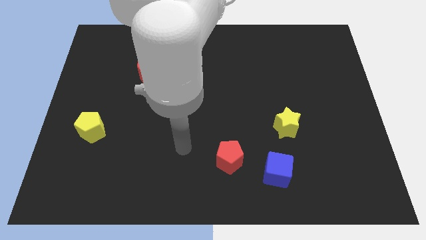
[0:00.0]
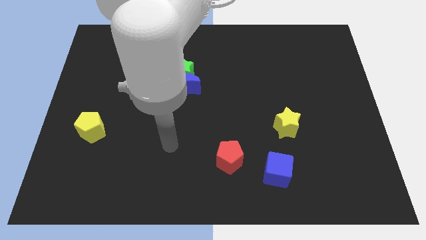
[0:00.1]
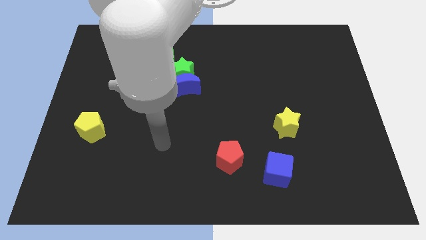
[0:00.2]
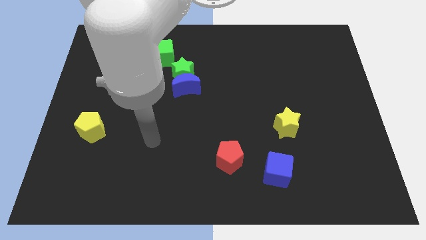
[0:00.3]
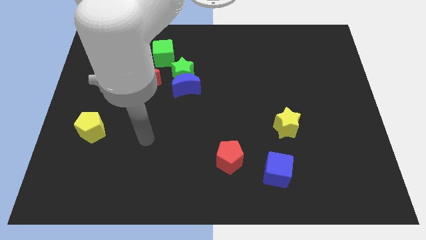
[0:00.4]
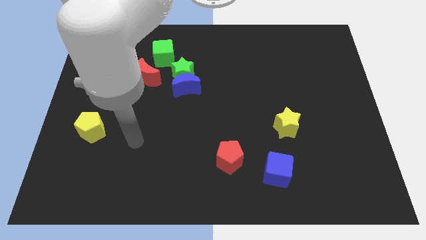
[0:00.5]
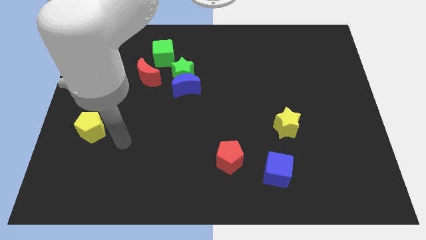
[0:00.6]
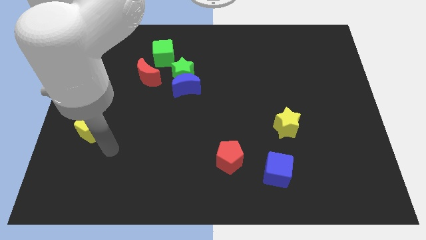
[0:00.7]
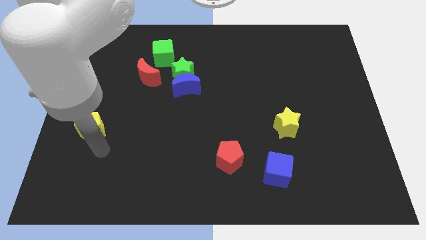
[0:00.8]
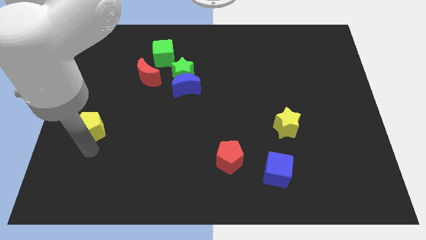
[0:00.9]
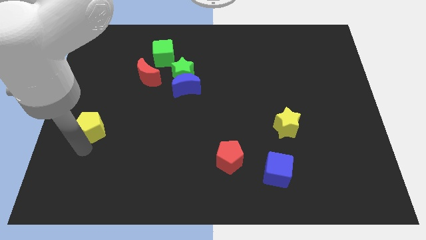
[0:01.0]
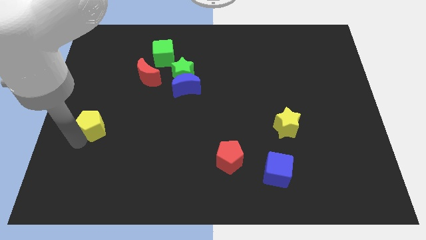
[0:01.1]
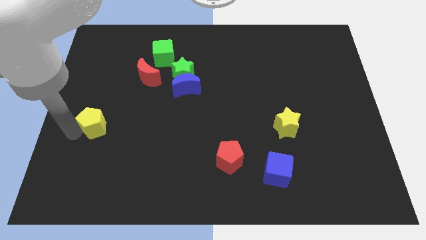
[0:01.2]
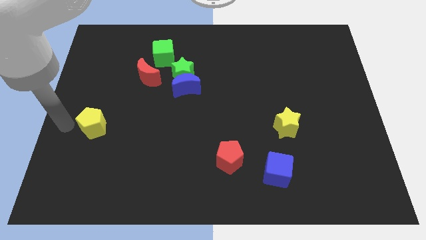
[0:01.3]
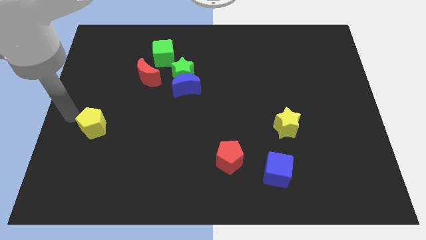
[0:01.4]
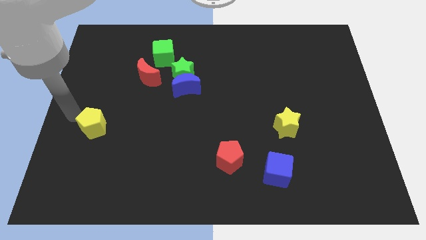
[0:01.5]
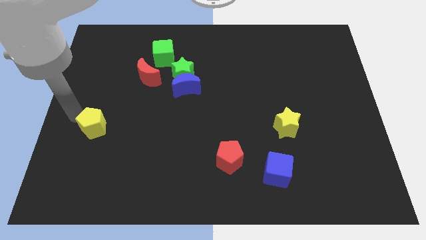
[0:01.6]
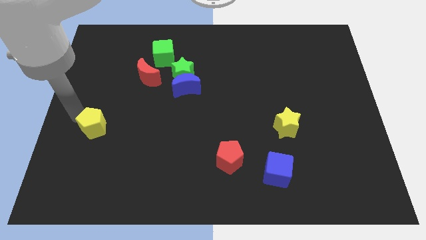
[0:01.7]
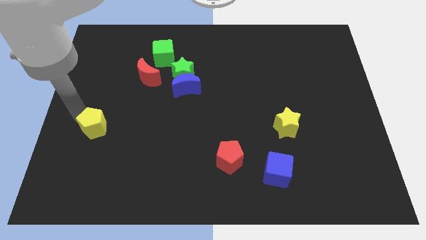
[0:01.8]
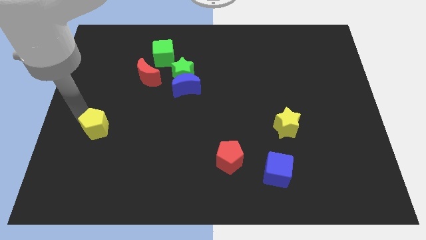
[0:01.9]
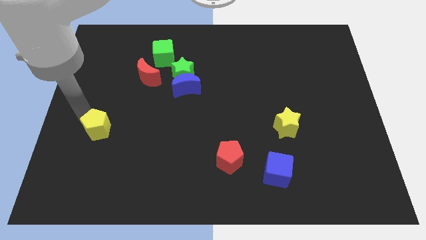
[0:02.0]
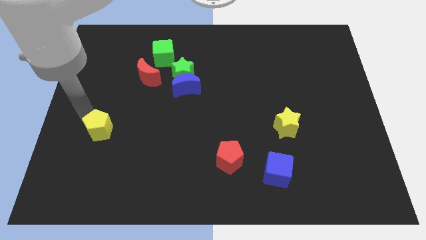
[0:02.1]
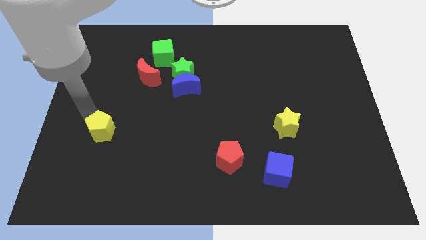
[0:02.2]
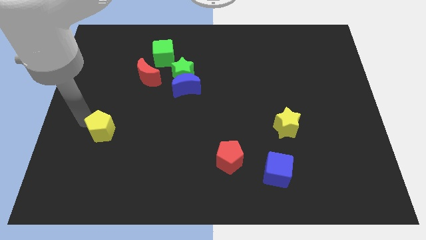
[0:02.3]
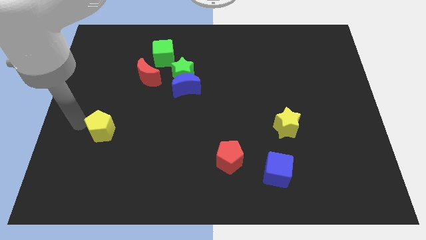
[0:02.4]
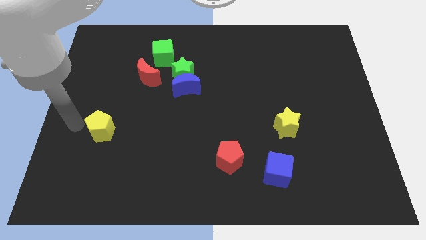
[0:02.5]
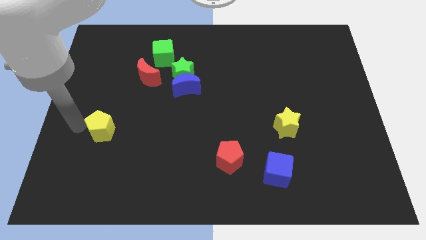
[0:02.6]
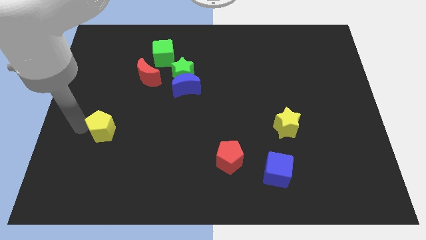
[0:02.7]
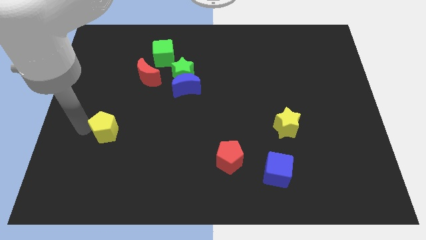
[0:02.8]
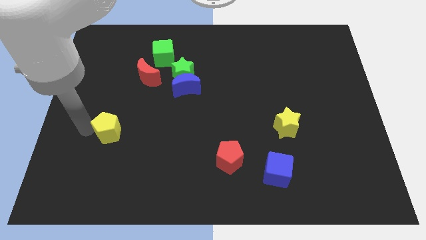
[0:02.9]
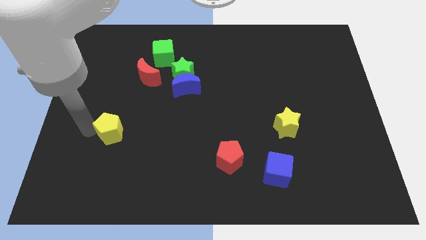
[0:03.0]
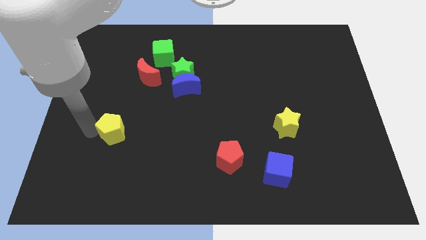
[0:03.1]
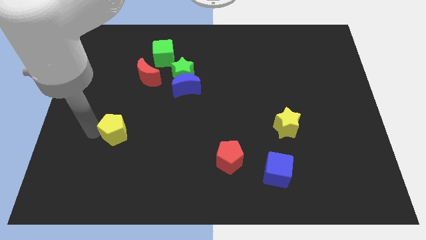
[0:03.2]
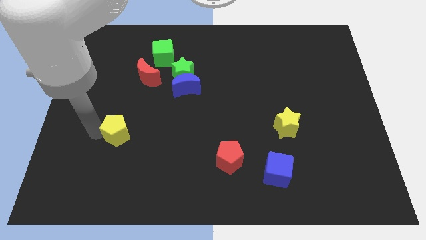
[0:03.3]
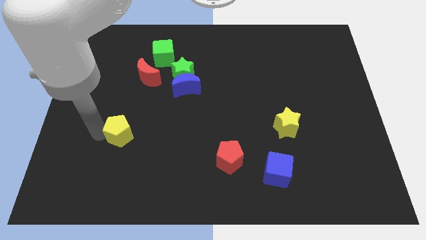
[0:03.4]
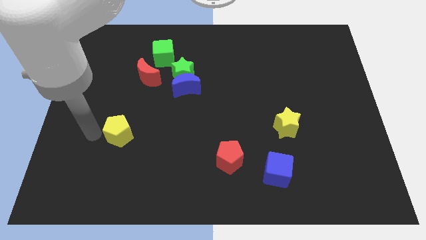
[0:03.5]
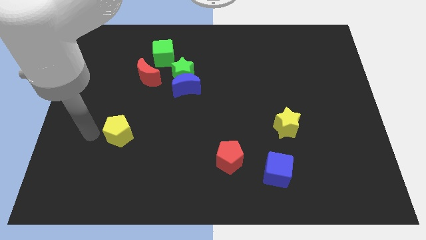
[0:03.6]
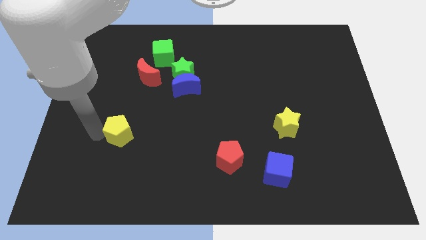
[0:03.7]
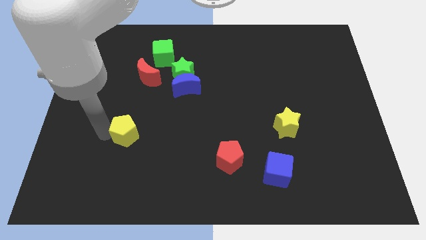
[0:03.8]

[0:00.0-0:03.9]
push the yellow pentagon right a bit

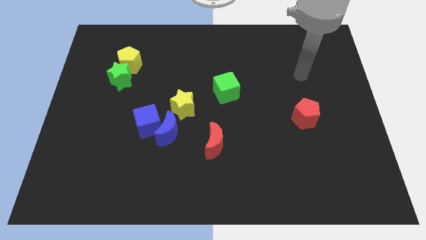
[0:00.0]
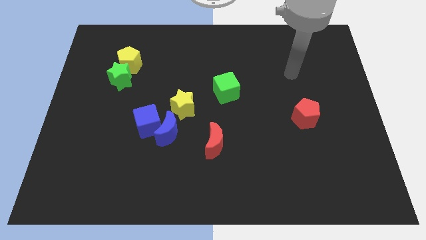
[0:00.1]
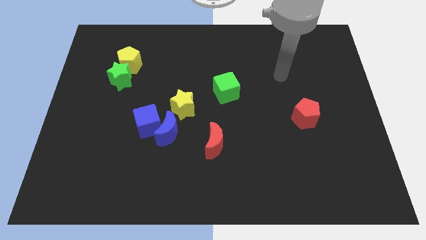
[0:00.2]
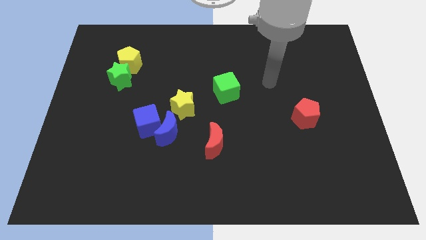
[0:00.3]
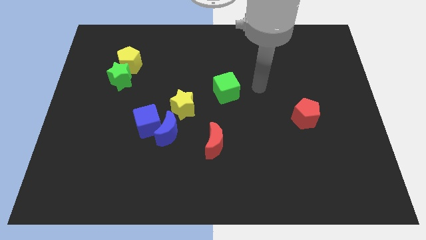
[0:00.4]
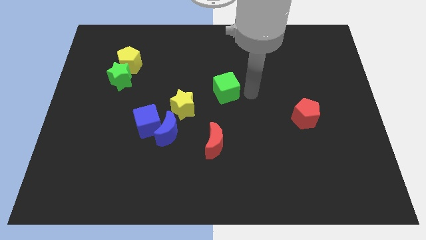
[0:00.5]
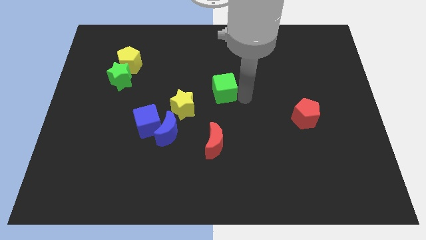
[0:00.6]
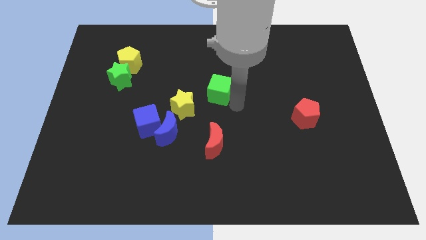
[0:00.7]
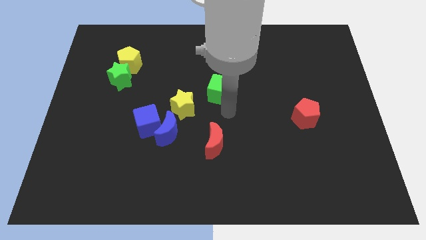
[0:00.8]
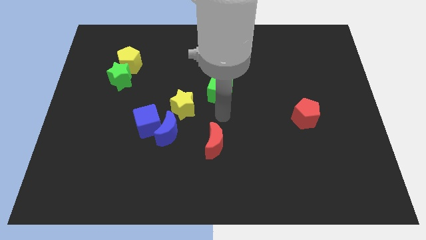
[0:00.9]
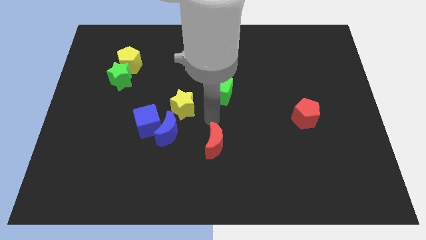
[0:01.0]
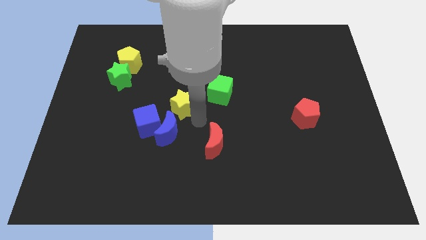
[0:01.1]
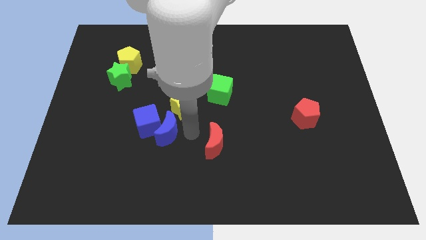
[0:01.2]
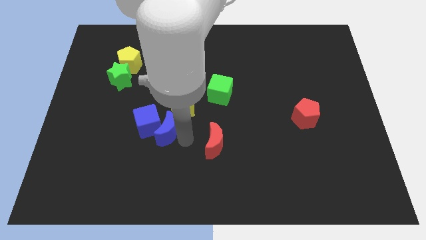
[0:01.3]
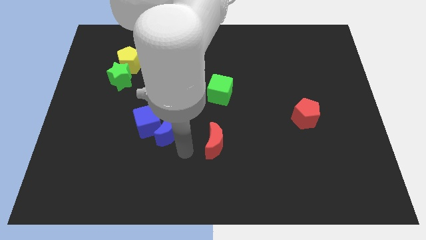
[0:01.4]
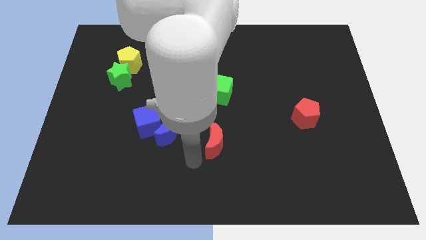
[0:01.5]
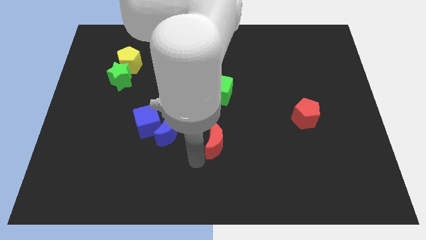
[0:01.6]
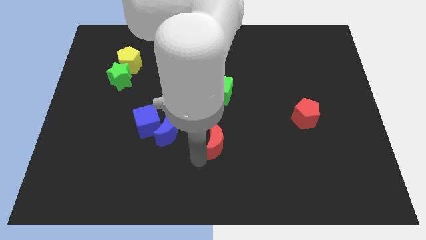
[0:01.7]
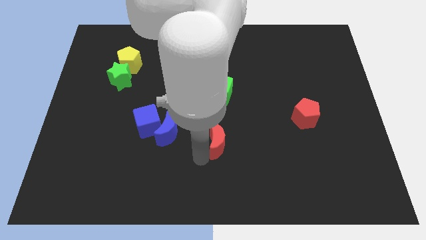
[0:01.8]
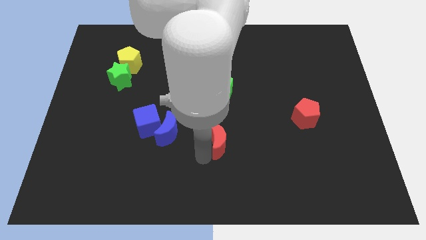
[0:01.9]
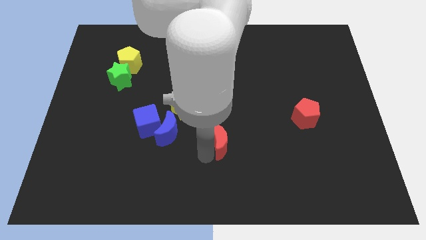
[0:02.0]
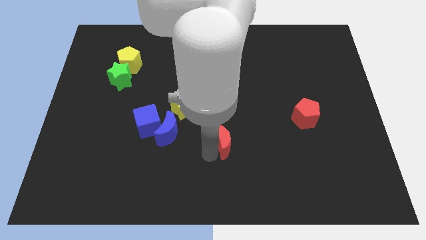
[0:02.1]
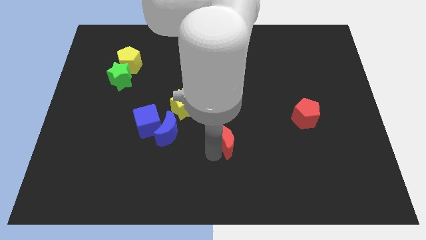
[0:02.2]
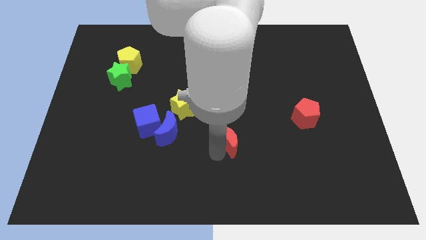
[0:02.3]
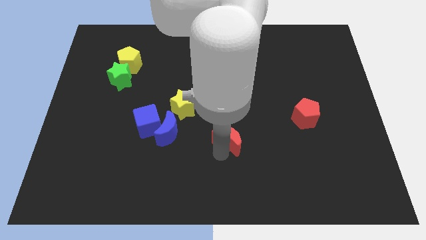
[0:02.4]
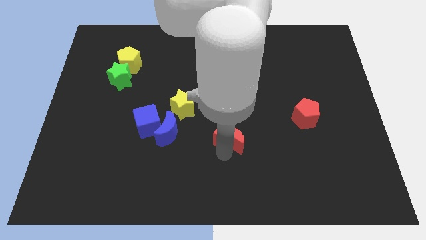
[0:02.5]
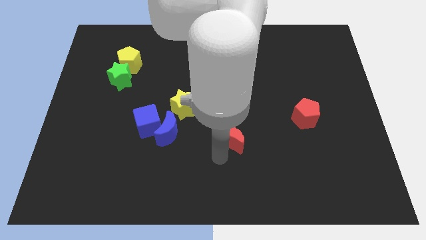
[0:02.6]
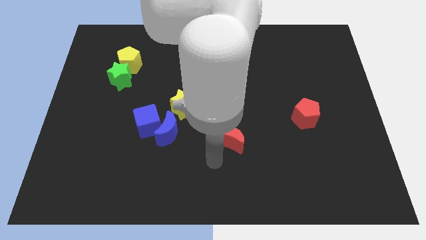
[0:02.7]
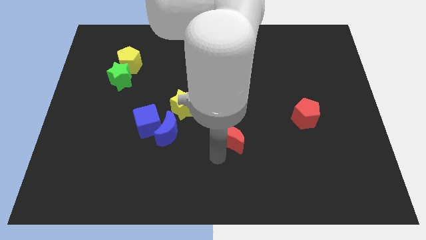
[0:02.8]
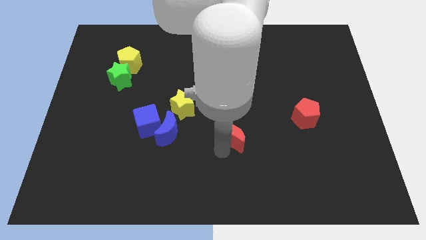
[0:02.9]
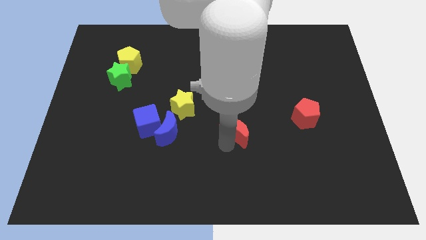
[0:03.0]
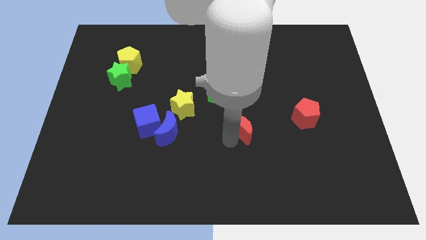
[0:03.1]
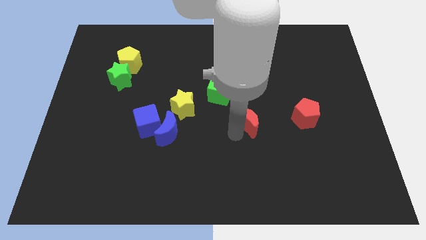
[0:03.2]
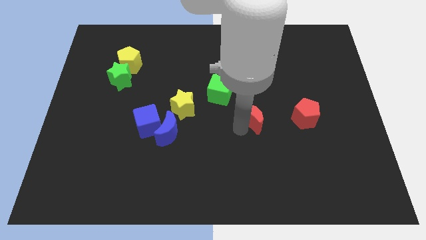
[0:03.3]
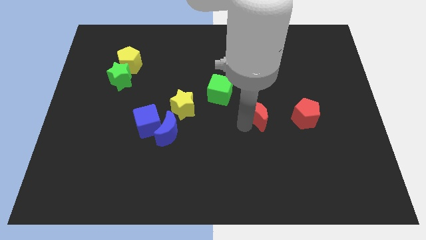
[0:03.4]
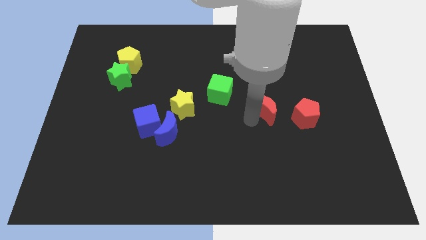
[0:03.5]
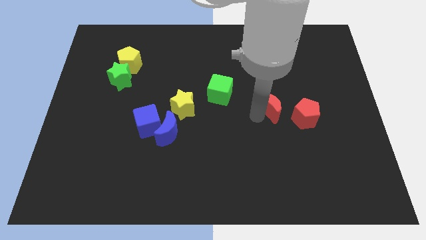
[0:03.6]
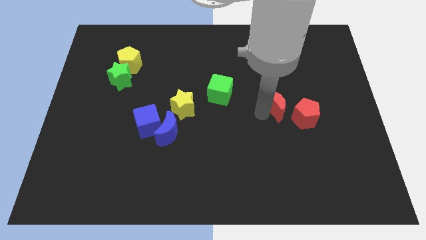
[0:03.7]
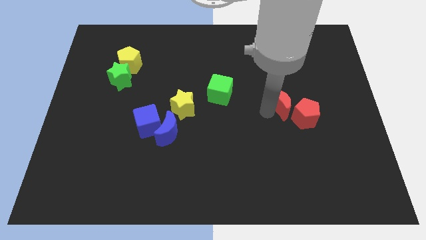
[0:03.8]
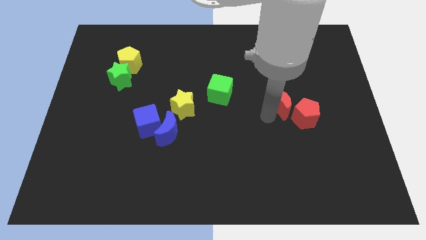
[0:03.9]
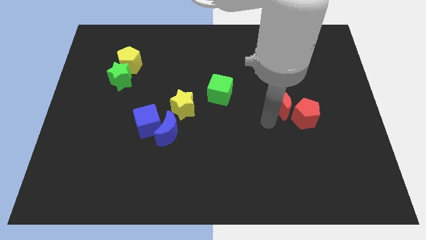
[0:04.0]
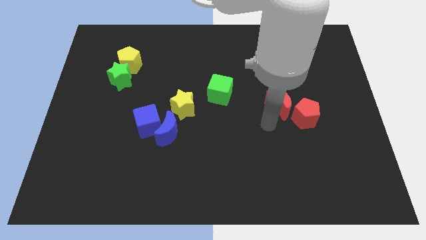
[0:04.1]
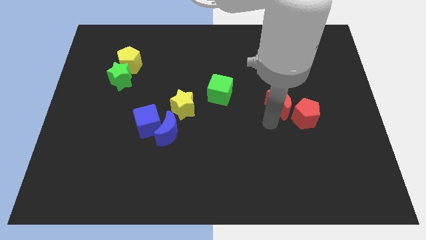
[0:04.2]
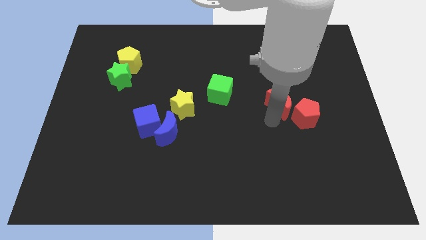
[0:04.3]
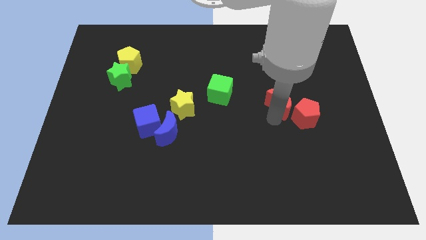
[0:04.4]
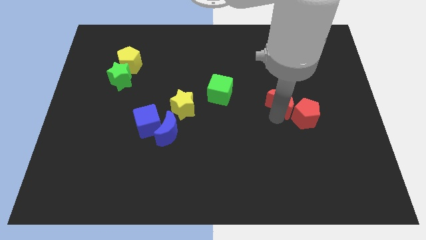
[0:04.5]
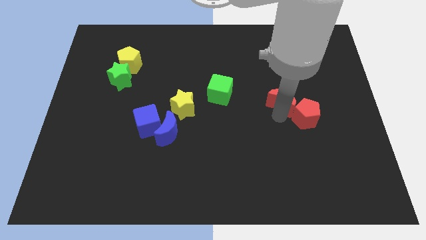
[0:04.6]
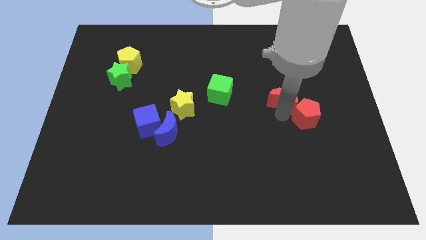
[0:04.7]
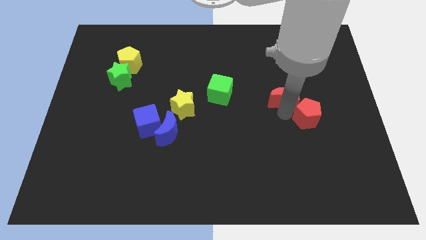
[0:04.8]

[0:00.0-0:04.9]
move the red moon up and to the right diagonally
